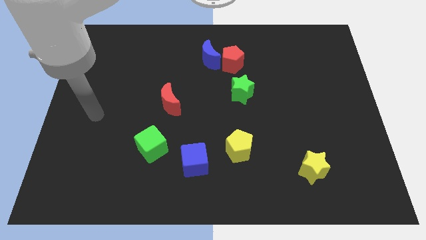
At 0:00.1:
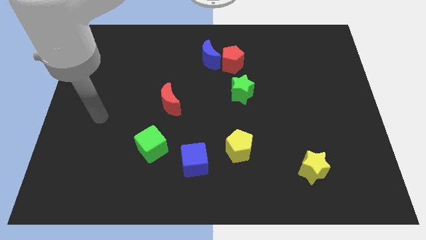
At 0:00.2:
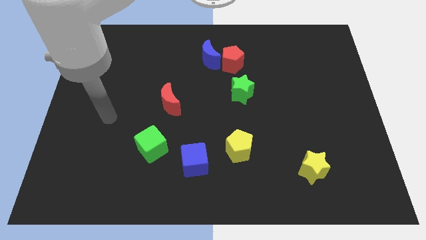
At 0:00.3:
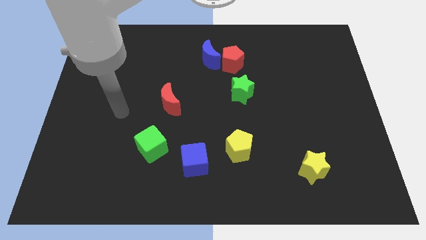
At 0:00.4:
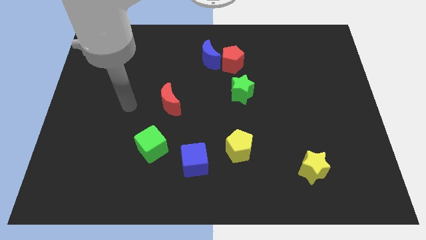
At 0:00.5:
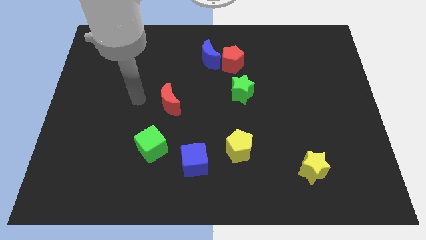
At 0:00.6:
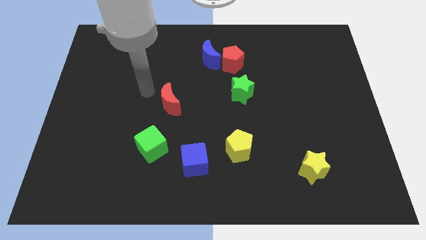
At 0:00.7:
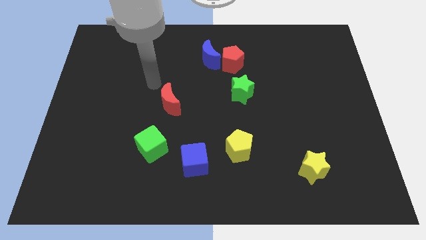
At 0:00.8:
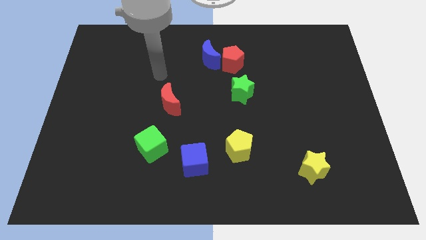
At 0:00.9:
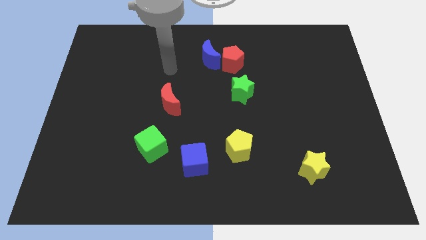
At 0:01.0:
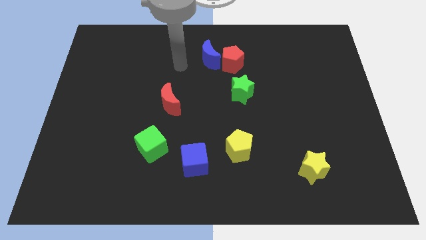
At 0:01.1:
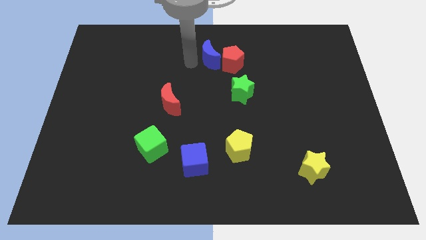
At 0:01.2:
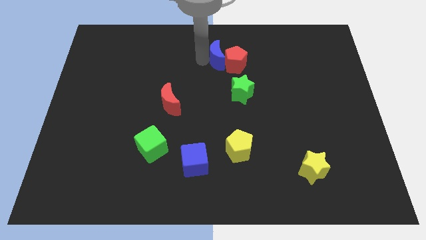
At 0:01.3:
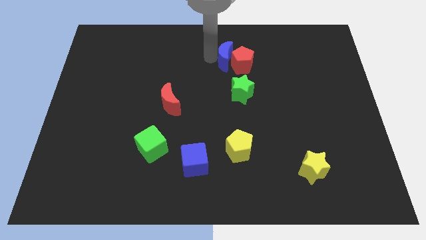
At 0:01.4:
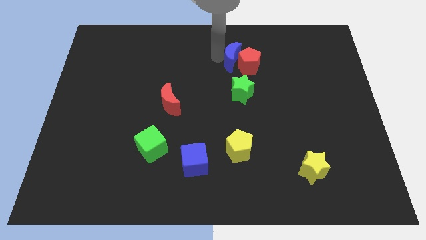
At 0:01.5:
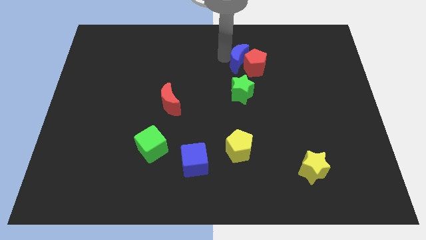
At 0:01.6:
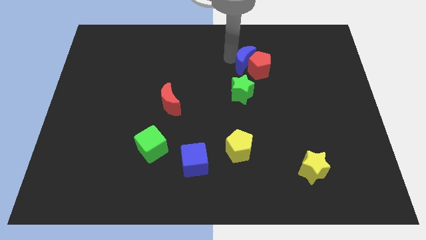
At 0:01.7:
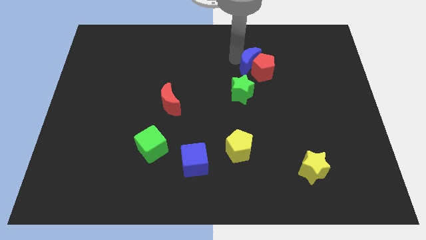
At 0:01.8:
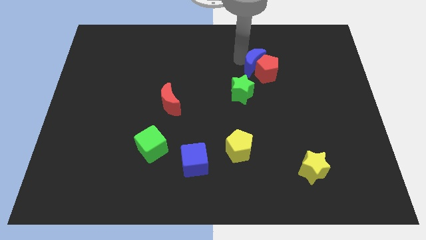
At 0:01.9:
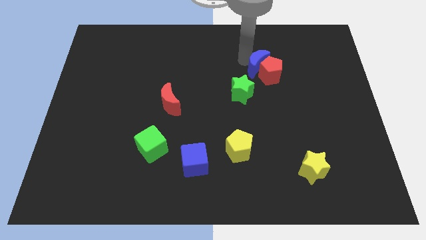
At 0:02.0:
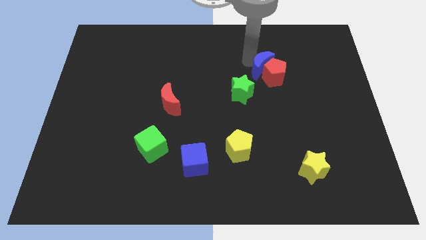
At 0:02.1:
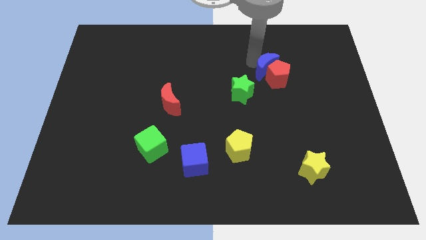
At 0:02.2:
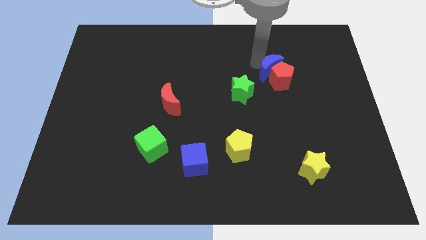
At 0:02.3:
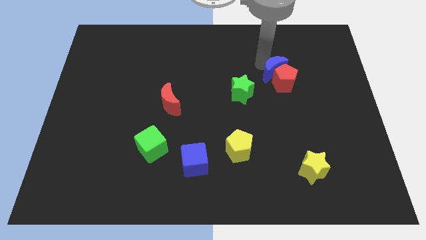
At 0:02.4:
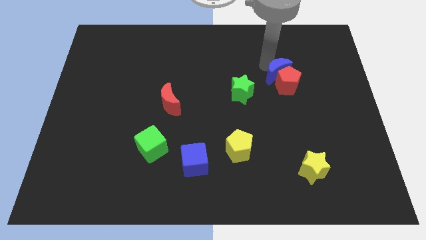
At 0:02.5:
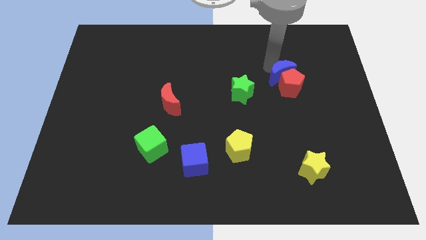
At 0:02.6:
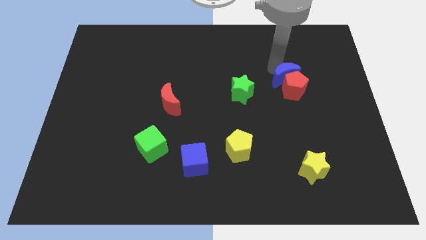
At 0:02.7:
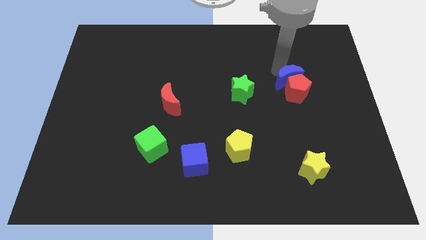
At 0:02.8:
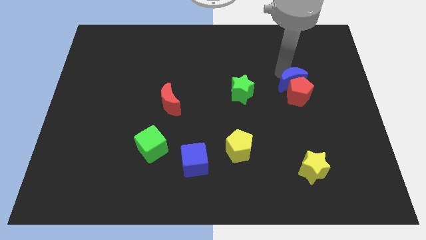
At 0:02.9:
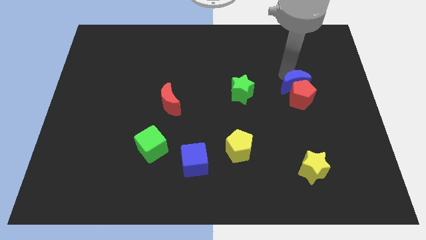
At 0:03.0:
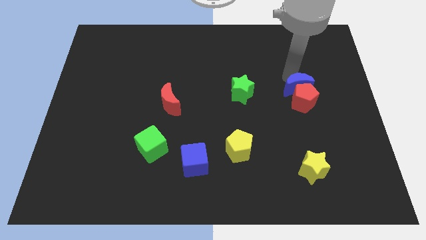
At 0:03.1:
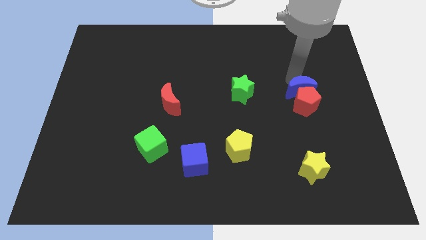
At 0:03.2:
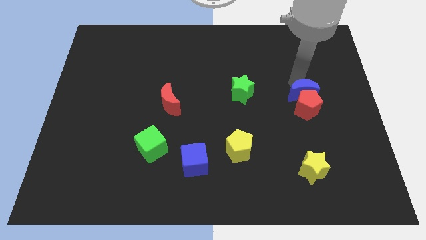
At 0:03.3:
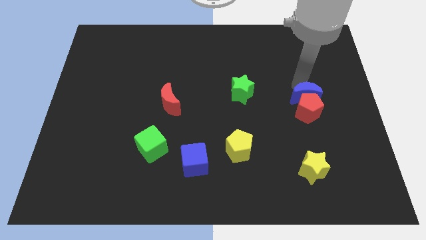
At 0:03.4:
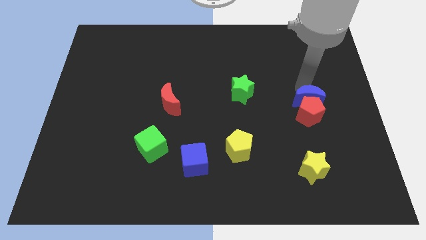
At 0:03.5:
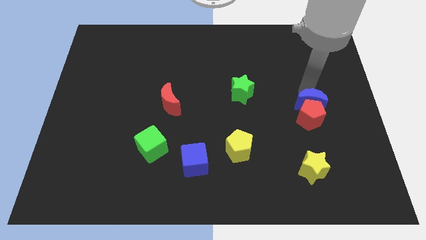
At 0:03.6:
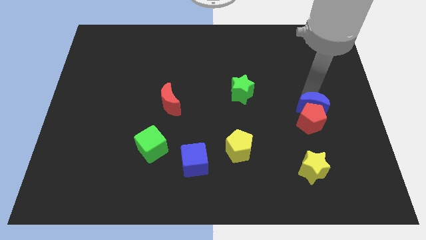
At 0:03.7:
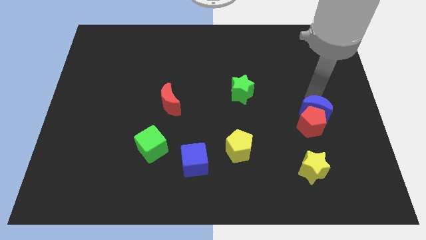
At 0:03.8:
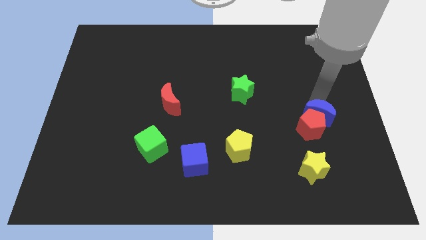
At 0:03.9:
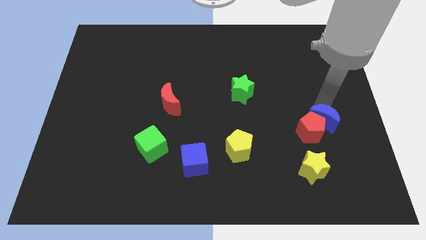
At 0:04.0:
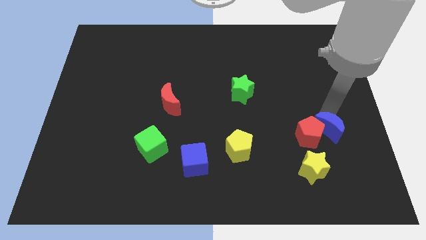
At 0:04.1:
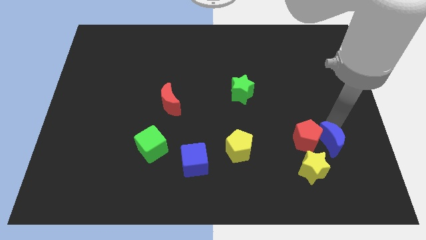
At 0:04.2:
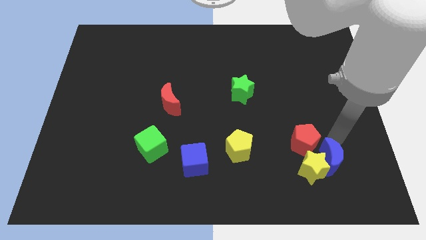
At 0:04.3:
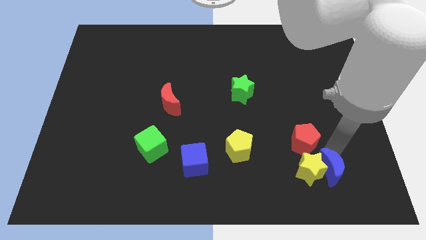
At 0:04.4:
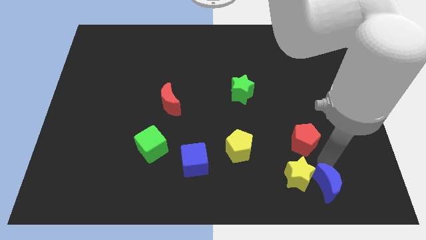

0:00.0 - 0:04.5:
pull the red pentagon apart from the blue moon

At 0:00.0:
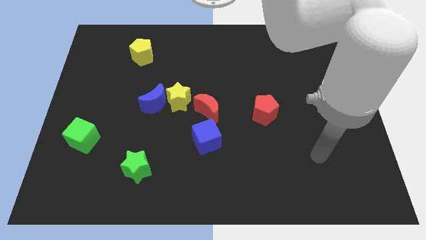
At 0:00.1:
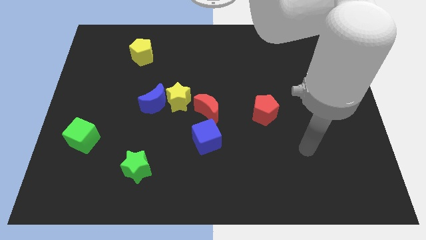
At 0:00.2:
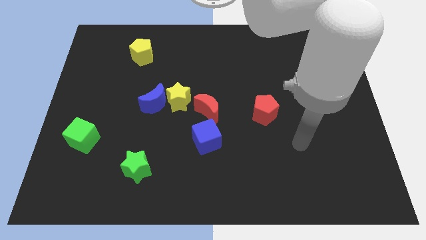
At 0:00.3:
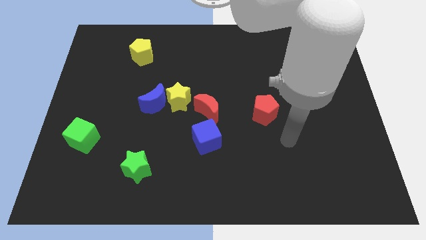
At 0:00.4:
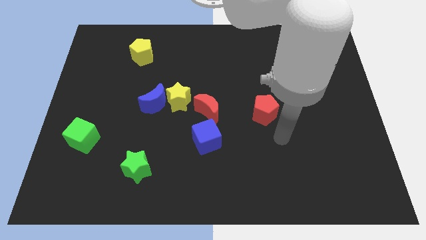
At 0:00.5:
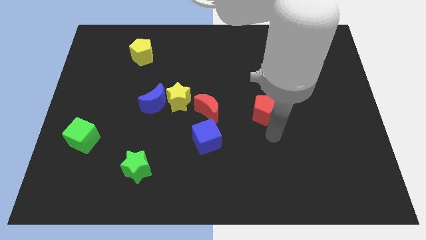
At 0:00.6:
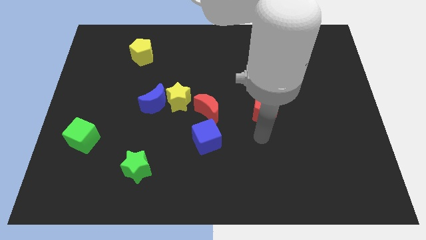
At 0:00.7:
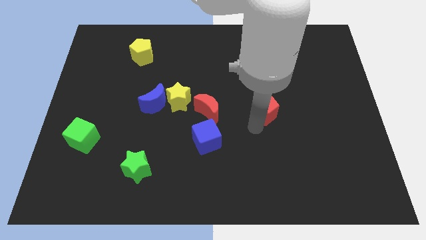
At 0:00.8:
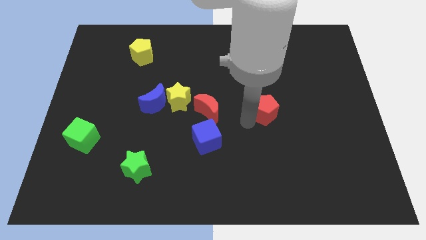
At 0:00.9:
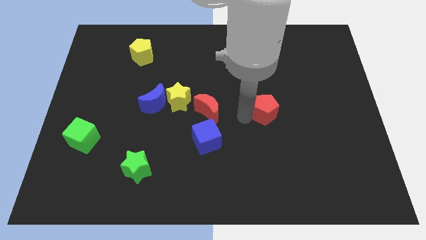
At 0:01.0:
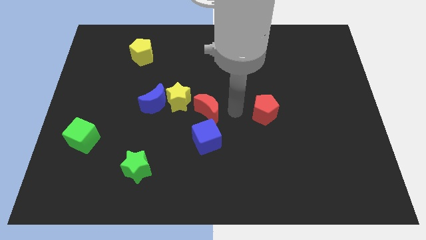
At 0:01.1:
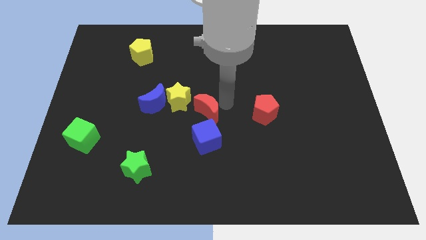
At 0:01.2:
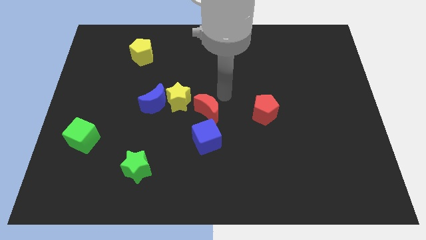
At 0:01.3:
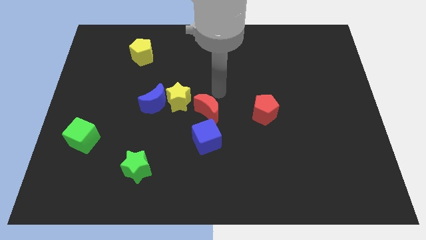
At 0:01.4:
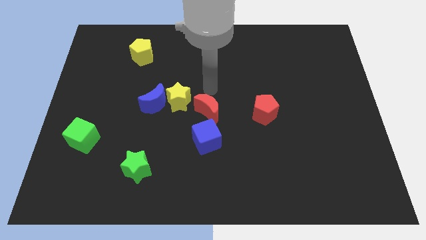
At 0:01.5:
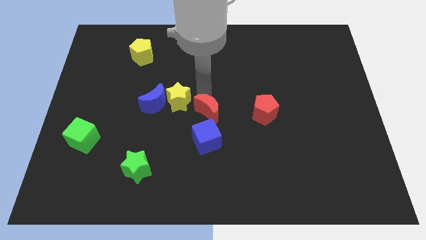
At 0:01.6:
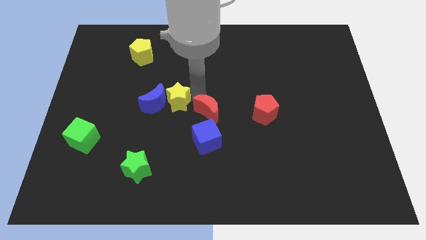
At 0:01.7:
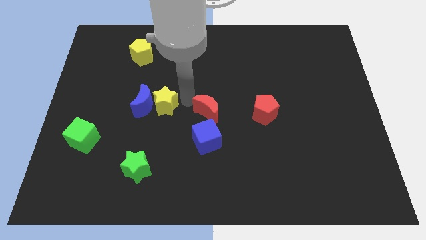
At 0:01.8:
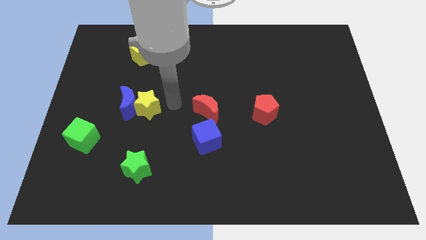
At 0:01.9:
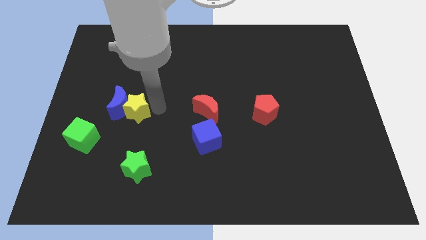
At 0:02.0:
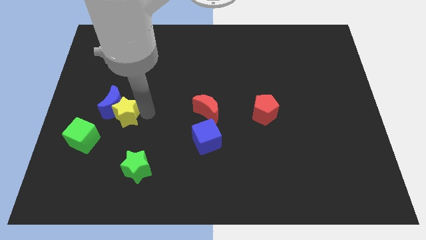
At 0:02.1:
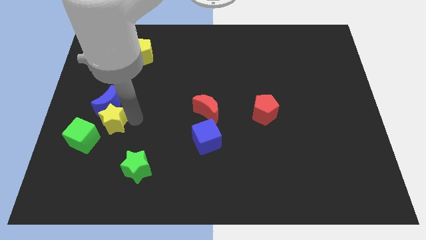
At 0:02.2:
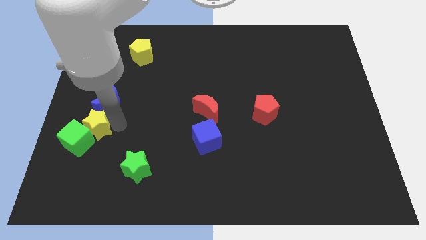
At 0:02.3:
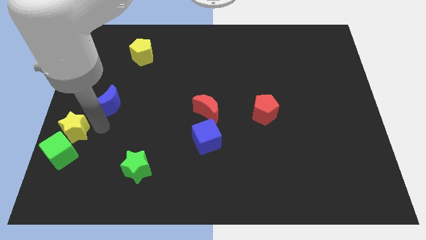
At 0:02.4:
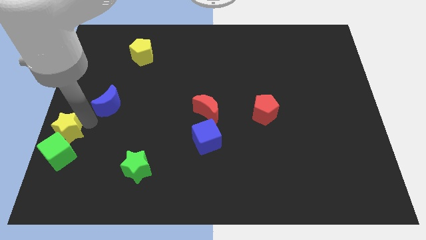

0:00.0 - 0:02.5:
pull the blue moon apart from the yellow star

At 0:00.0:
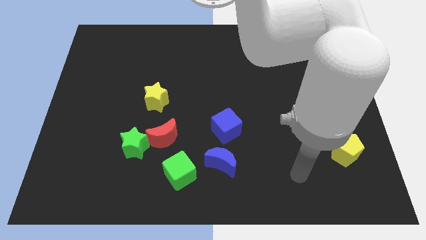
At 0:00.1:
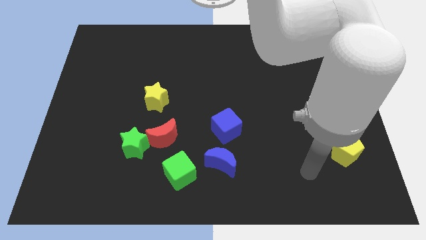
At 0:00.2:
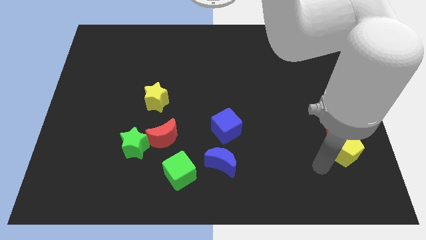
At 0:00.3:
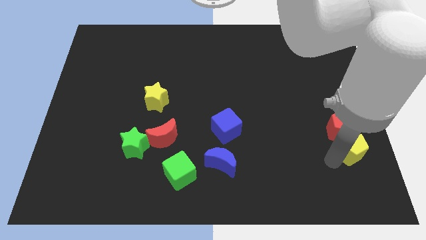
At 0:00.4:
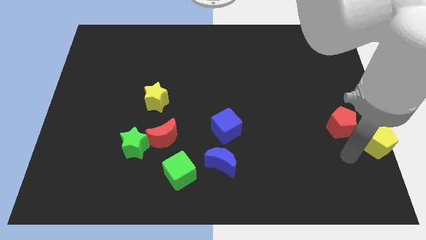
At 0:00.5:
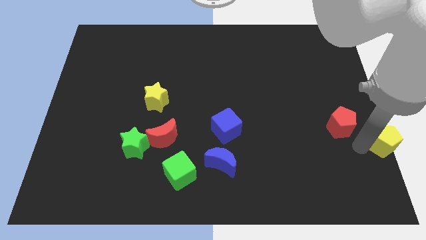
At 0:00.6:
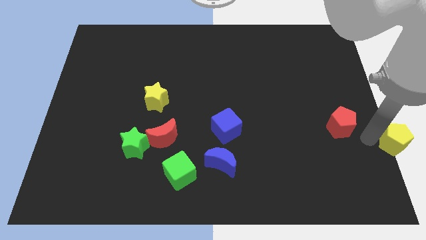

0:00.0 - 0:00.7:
separate the red pentagon from the yellow pentagon

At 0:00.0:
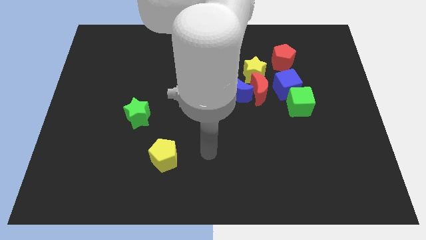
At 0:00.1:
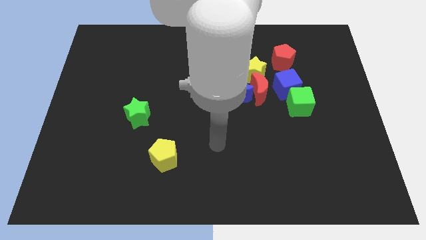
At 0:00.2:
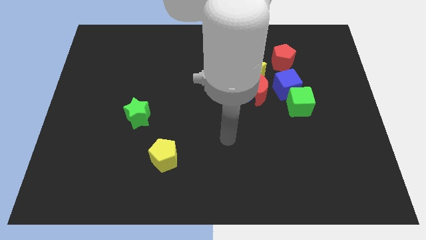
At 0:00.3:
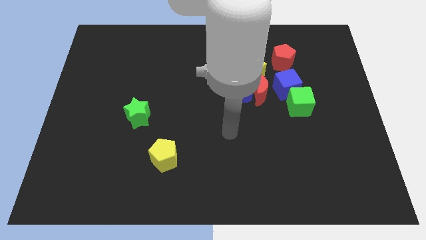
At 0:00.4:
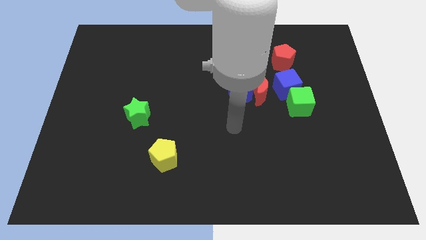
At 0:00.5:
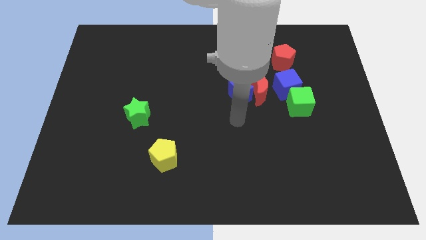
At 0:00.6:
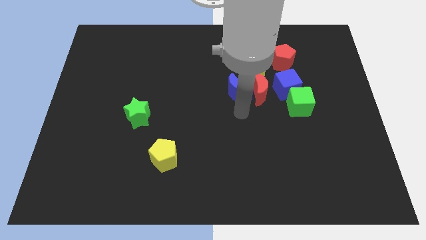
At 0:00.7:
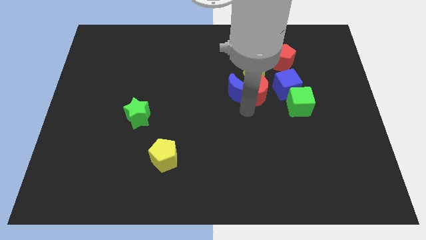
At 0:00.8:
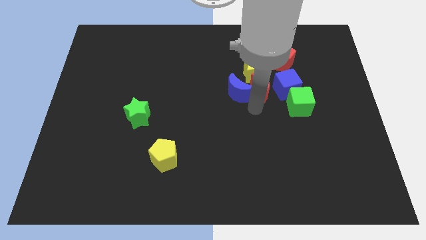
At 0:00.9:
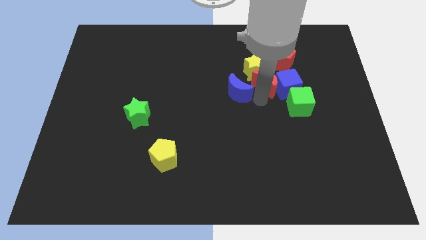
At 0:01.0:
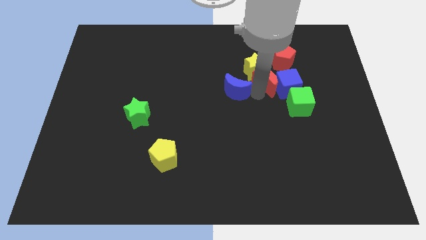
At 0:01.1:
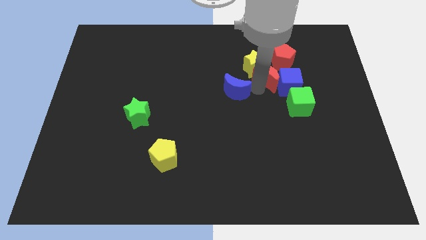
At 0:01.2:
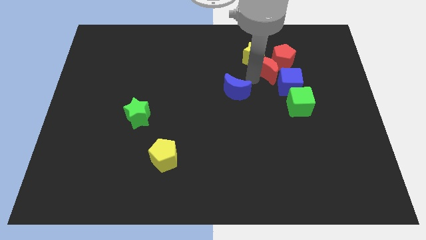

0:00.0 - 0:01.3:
pull the blue moon apart from the red moon and yellow star

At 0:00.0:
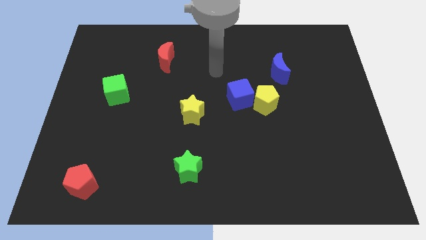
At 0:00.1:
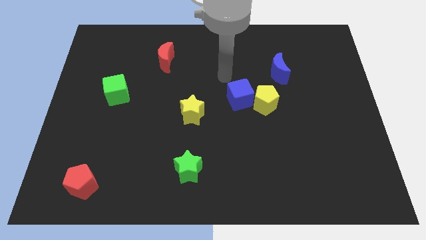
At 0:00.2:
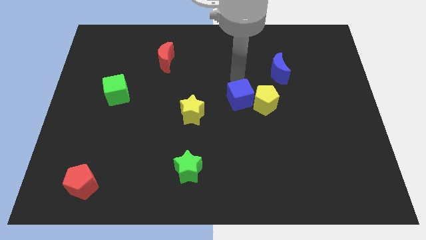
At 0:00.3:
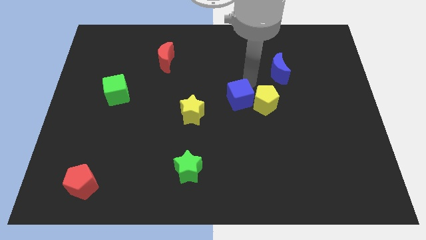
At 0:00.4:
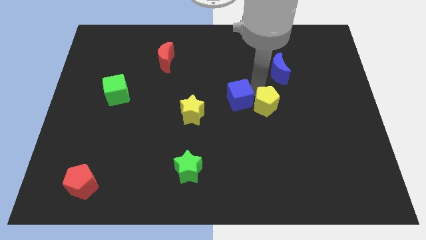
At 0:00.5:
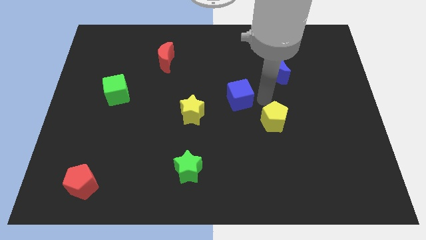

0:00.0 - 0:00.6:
separate the blue cube from the yellow pentagon
